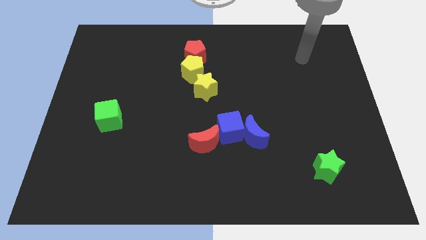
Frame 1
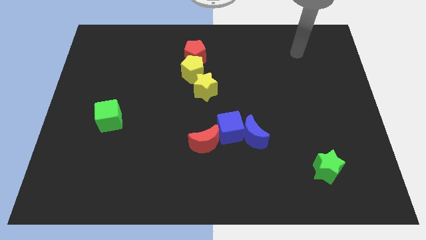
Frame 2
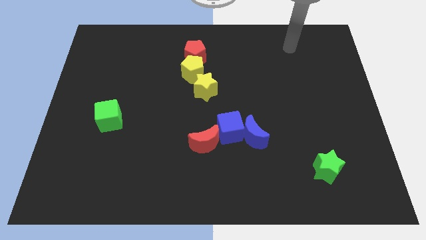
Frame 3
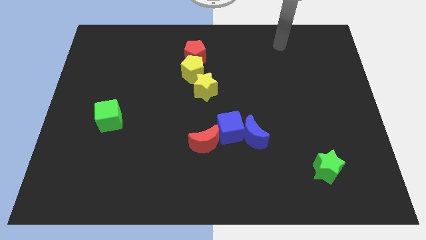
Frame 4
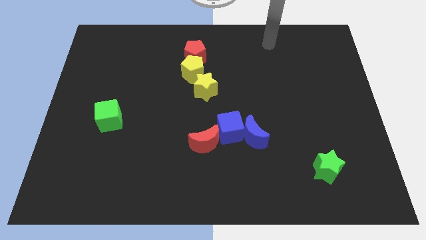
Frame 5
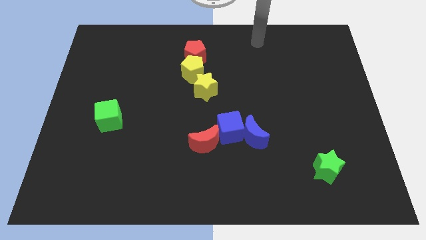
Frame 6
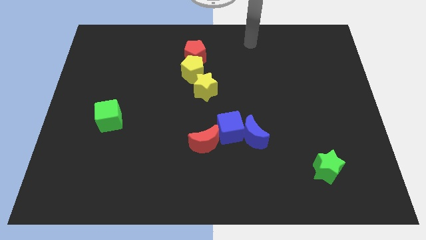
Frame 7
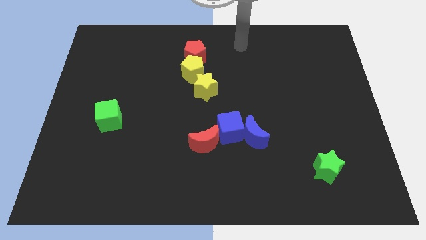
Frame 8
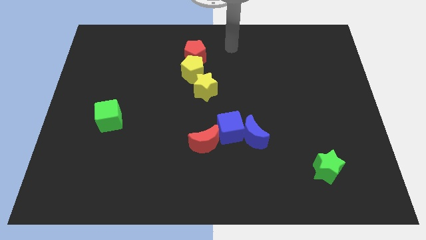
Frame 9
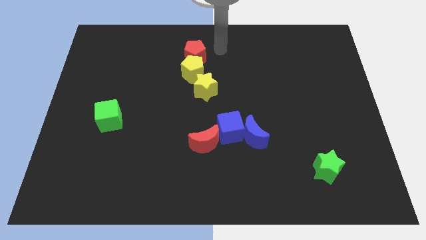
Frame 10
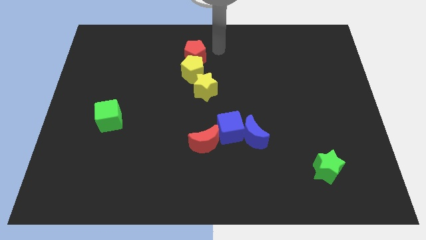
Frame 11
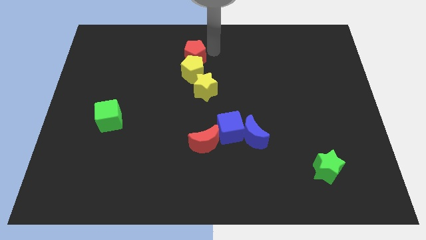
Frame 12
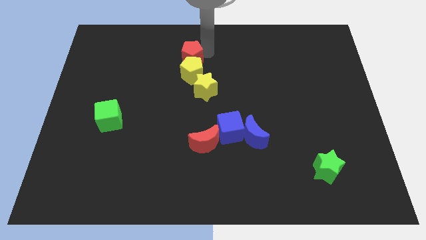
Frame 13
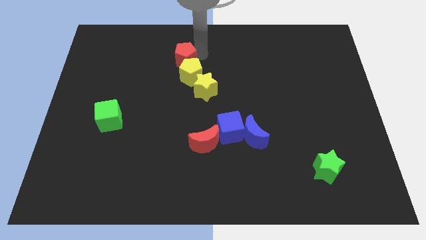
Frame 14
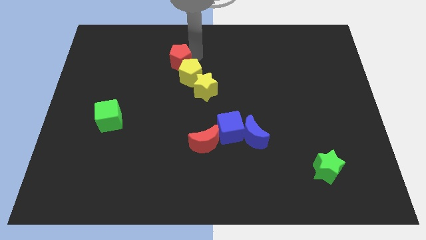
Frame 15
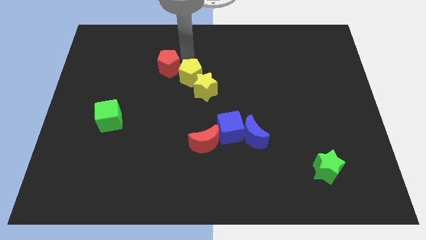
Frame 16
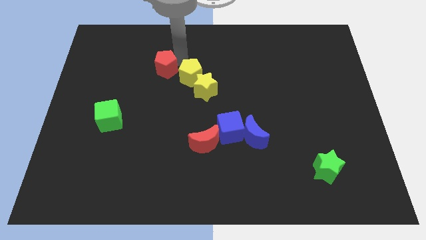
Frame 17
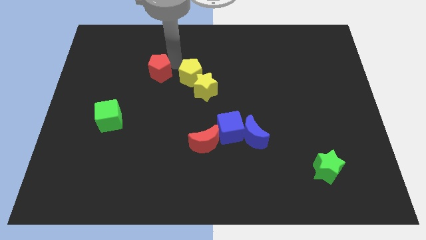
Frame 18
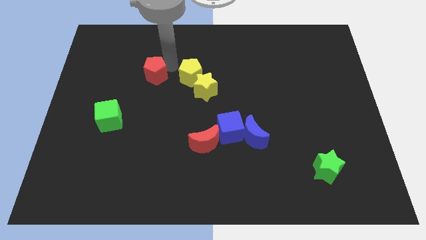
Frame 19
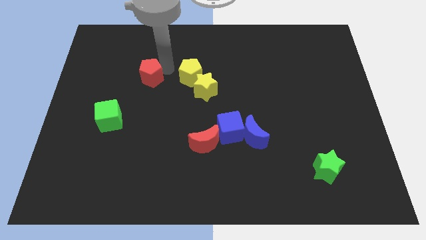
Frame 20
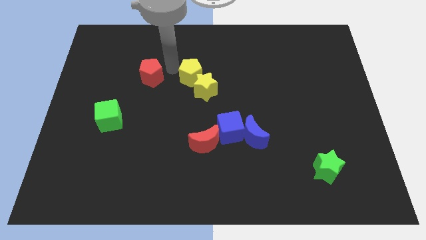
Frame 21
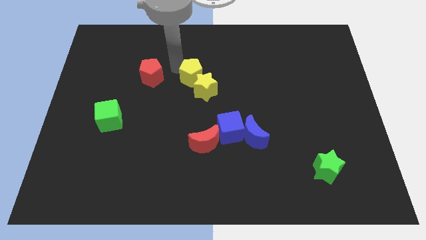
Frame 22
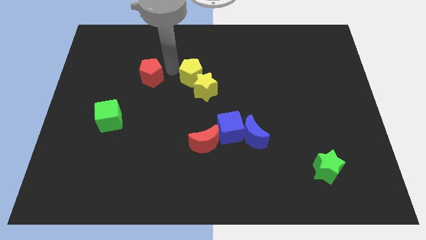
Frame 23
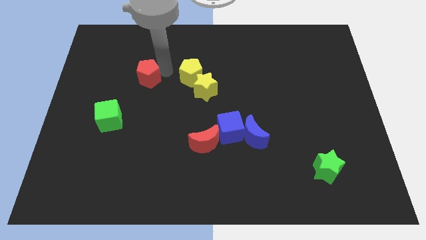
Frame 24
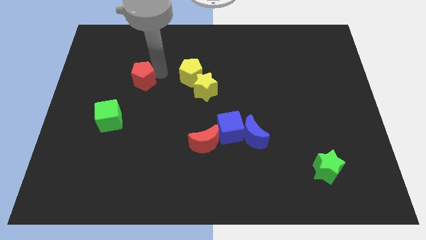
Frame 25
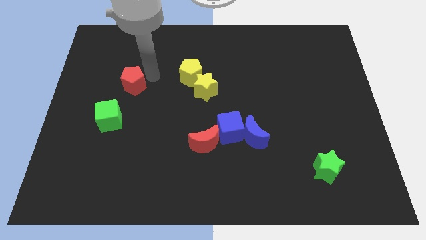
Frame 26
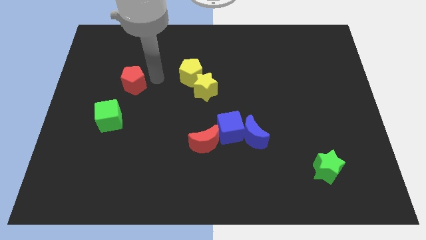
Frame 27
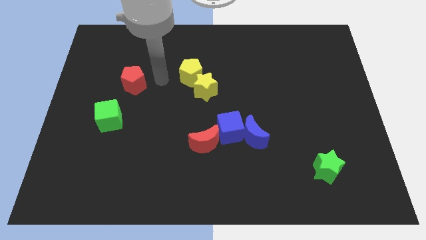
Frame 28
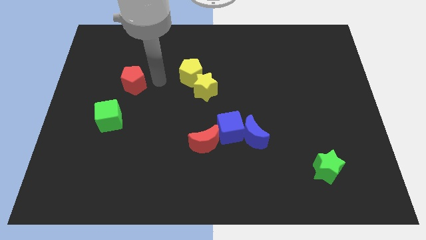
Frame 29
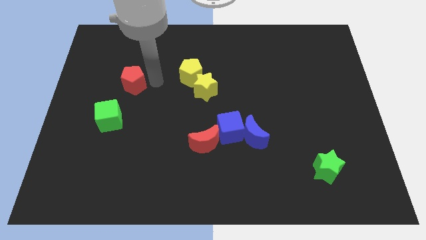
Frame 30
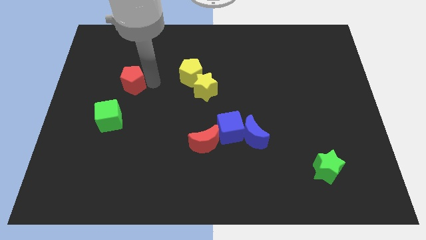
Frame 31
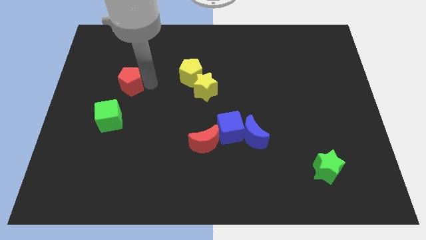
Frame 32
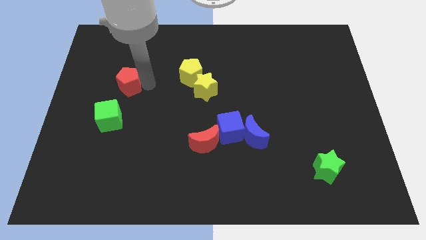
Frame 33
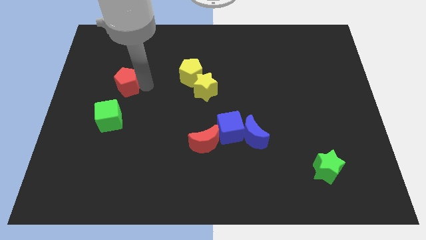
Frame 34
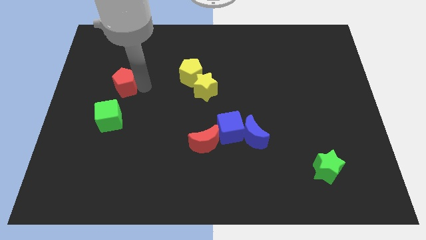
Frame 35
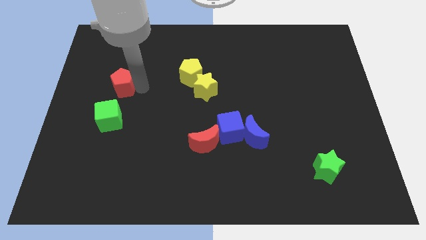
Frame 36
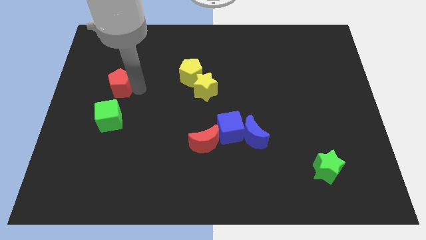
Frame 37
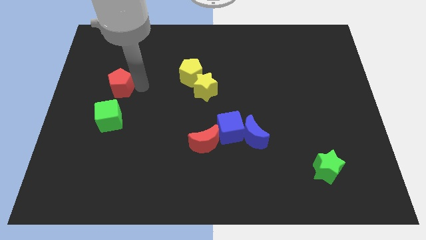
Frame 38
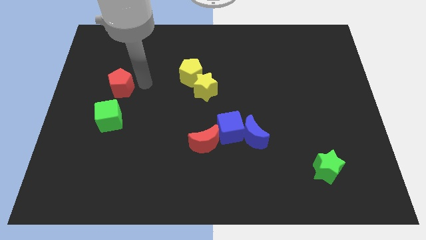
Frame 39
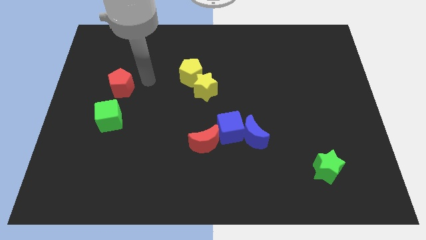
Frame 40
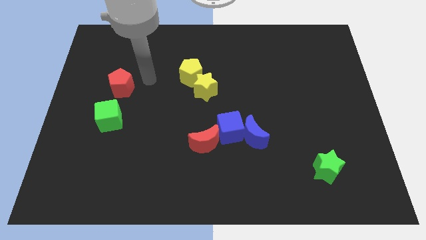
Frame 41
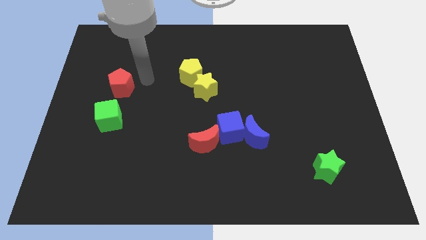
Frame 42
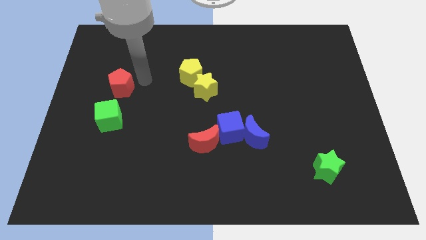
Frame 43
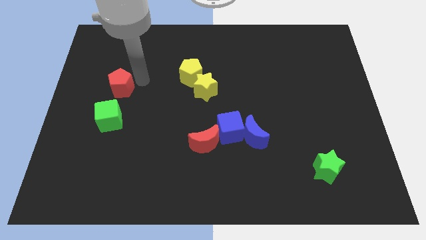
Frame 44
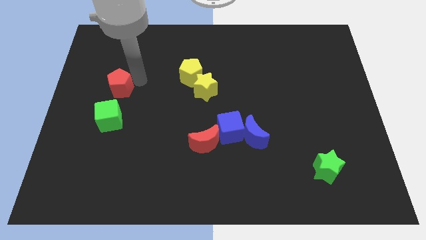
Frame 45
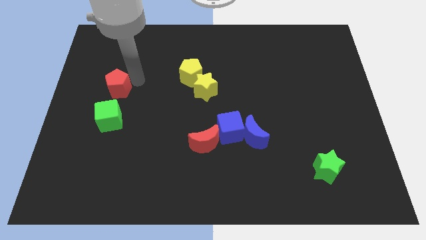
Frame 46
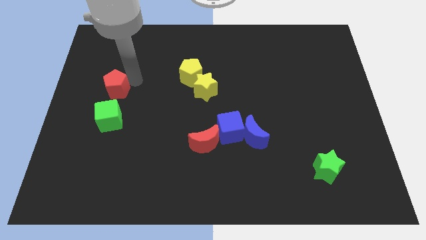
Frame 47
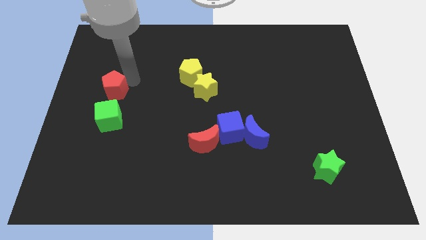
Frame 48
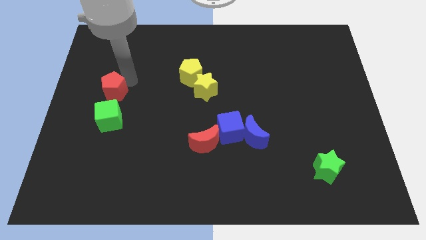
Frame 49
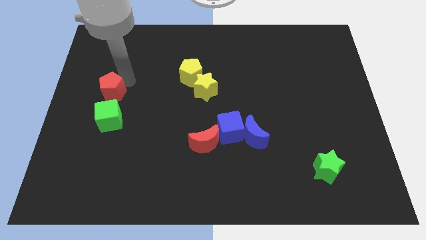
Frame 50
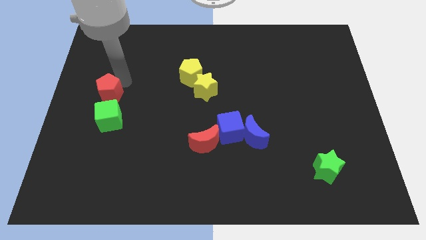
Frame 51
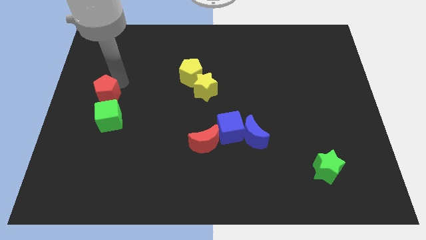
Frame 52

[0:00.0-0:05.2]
put the red pentagon to the left side of the board

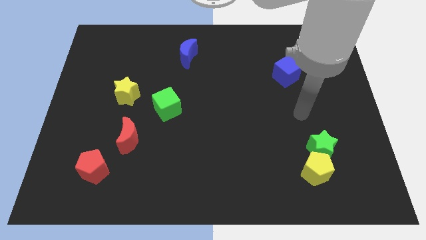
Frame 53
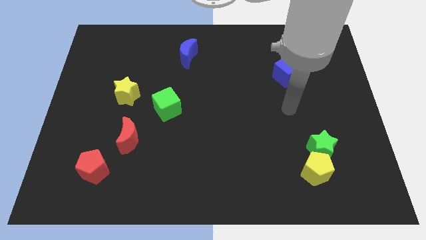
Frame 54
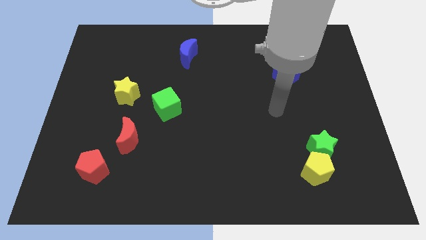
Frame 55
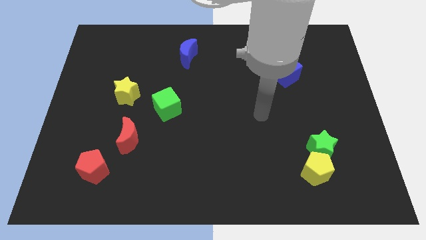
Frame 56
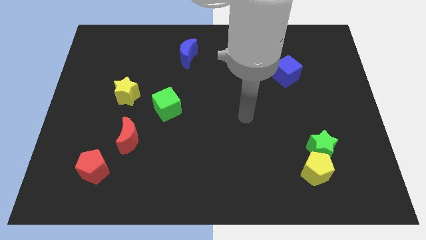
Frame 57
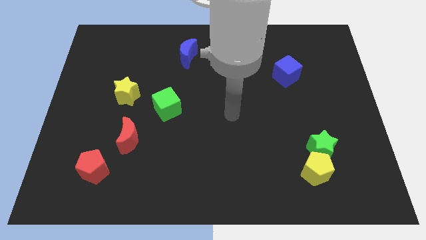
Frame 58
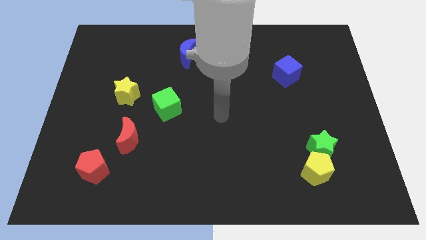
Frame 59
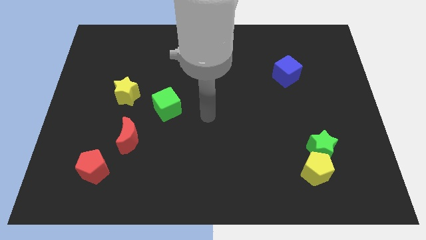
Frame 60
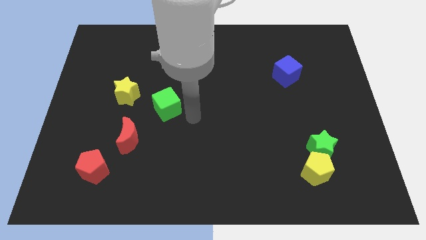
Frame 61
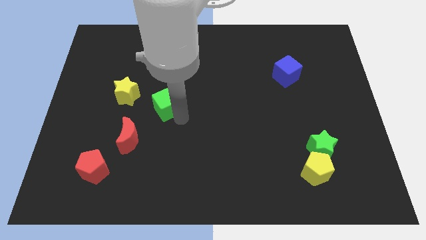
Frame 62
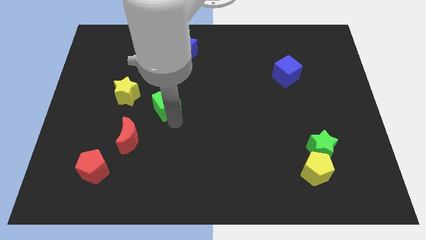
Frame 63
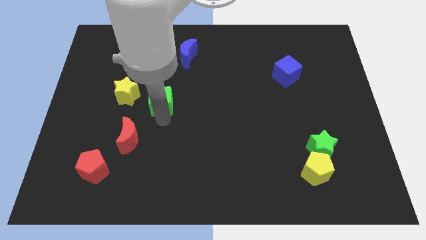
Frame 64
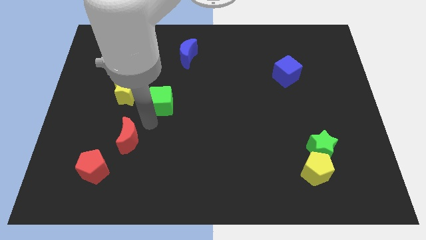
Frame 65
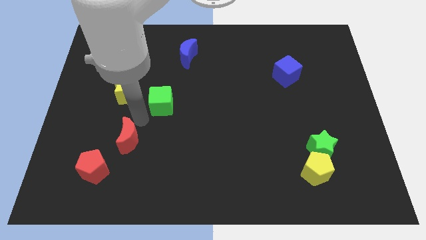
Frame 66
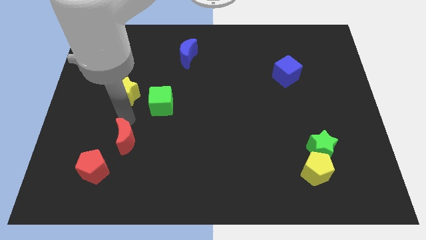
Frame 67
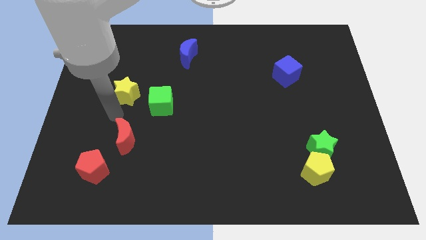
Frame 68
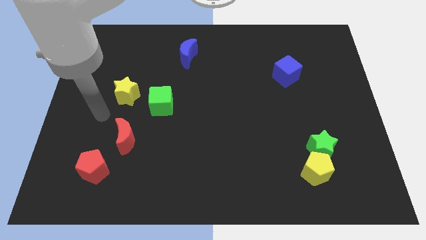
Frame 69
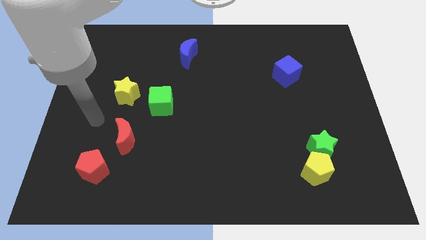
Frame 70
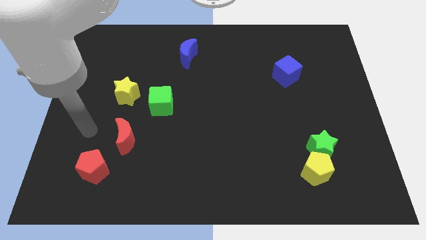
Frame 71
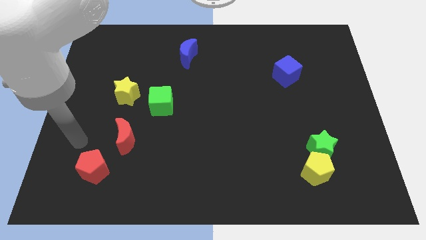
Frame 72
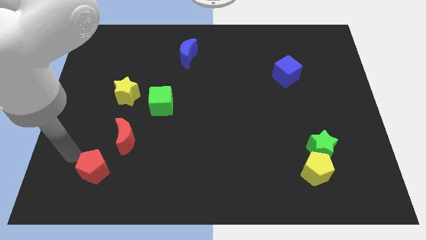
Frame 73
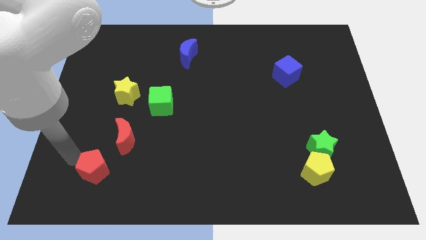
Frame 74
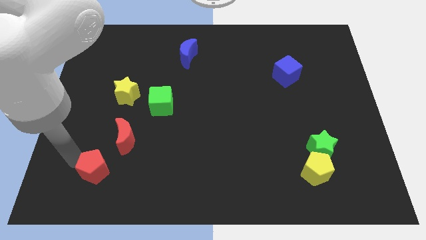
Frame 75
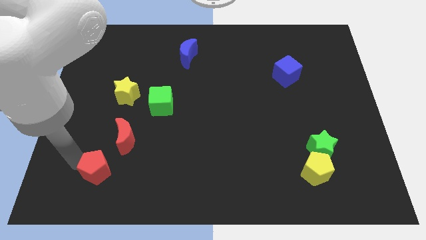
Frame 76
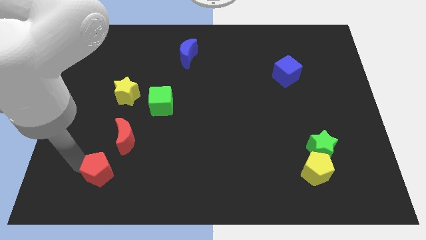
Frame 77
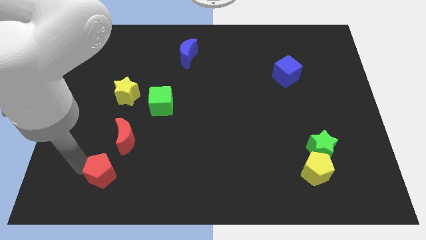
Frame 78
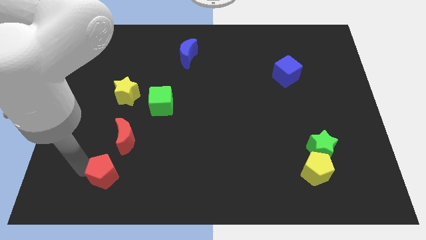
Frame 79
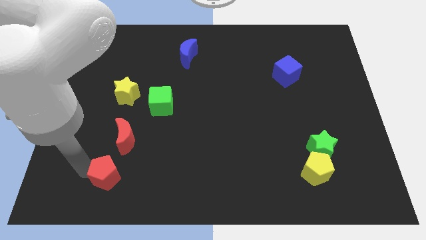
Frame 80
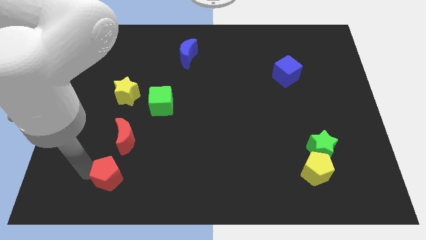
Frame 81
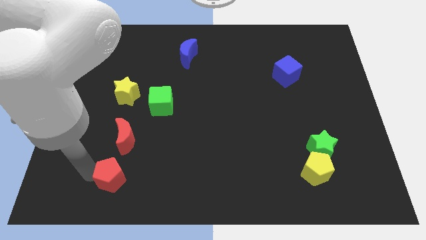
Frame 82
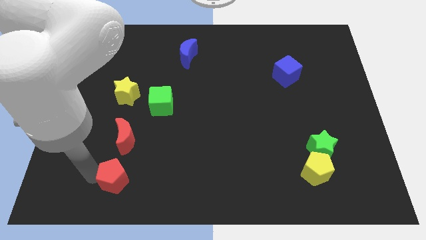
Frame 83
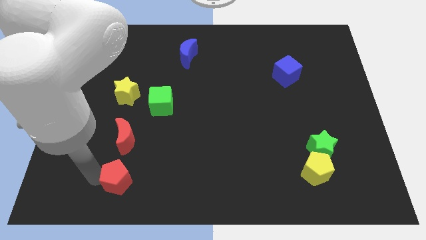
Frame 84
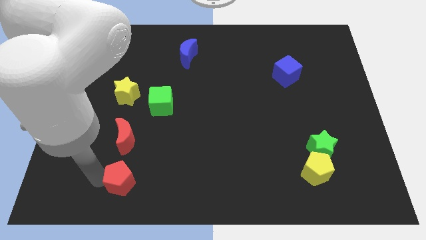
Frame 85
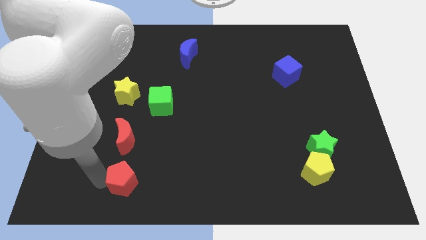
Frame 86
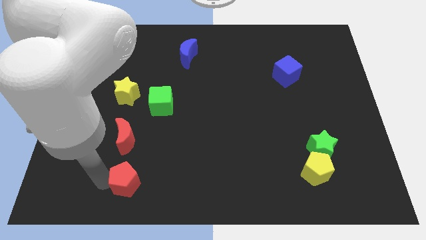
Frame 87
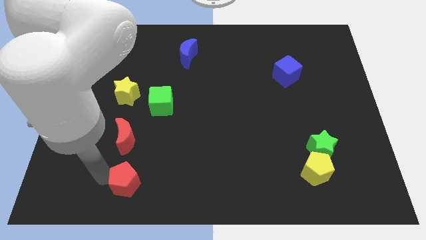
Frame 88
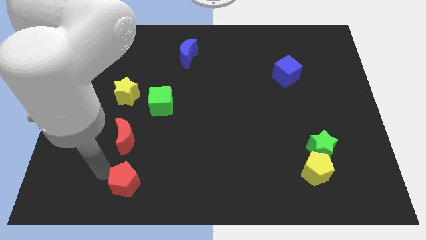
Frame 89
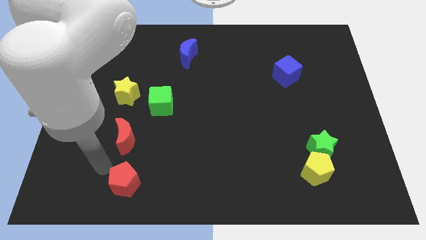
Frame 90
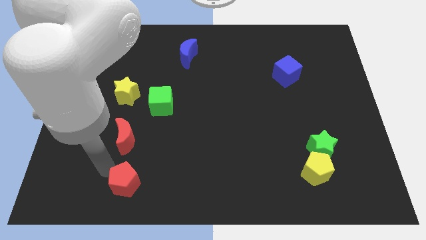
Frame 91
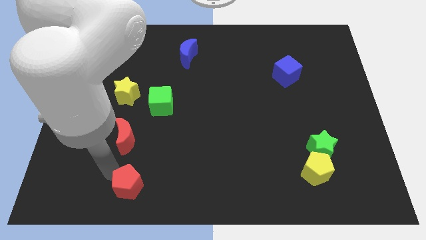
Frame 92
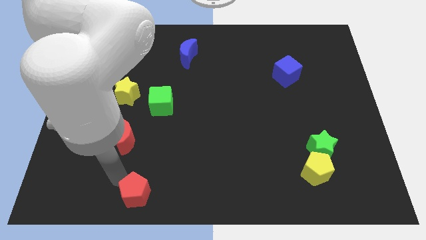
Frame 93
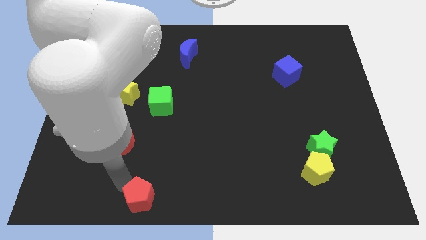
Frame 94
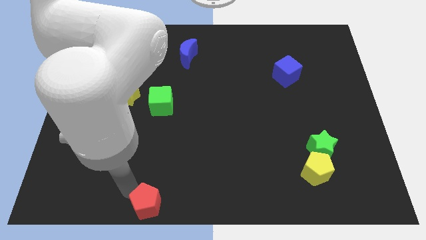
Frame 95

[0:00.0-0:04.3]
move the red pentagon to the bottom side
